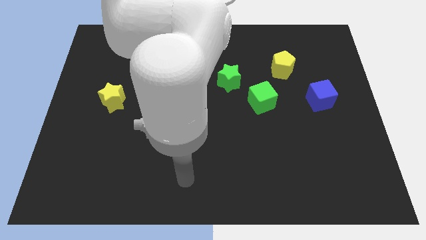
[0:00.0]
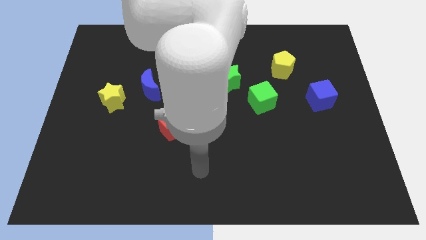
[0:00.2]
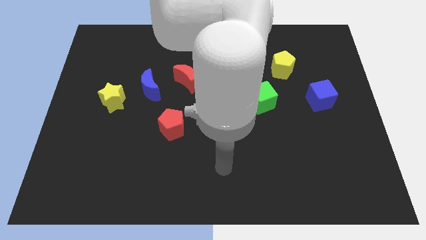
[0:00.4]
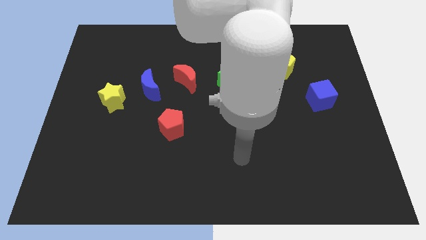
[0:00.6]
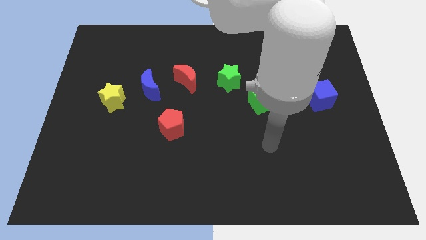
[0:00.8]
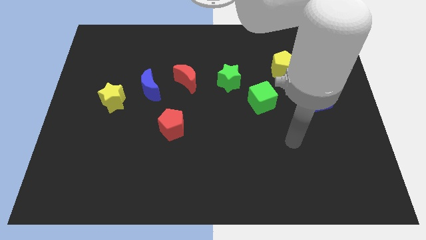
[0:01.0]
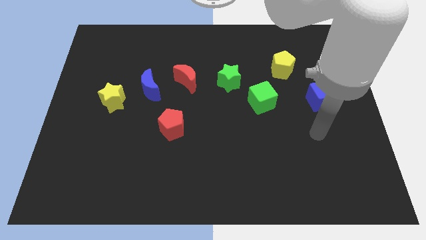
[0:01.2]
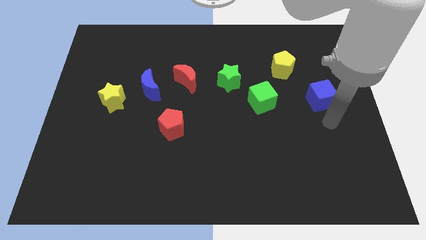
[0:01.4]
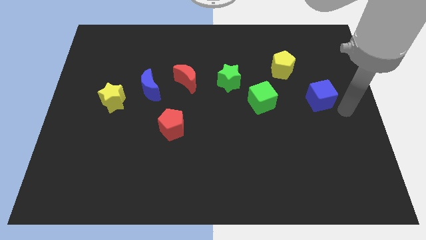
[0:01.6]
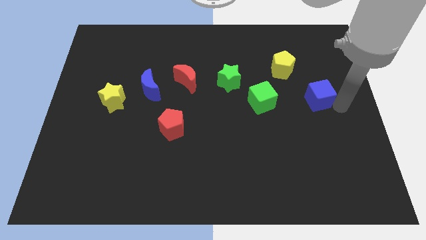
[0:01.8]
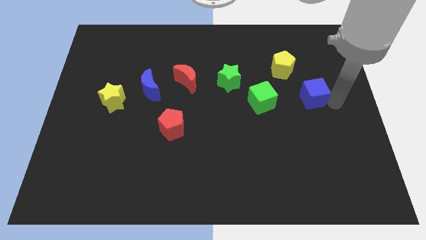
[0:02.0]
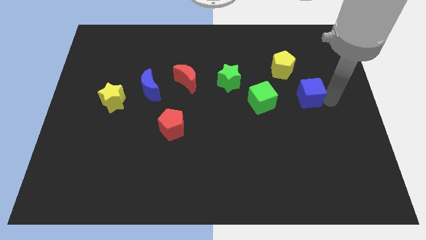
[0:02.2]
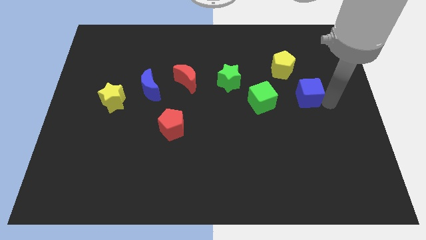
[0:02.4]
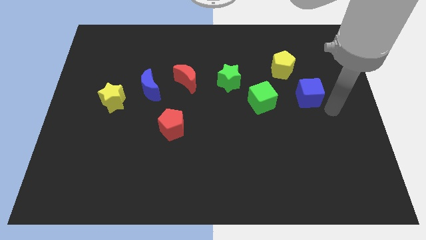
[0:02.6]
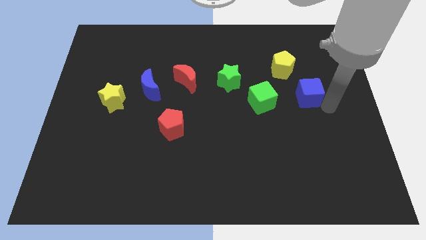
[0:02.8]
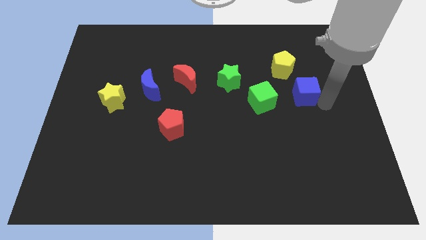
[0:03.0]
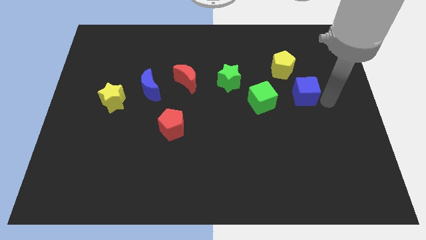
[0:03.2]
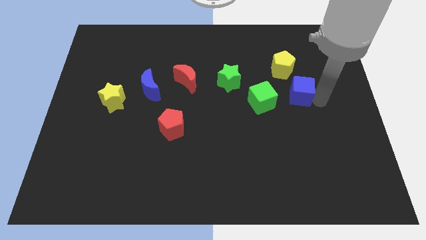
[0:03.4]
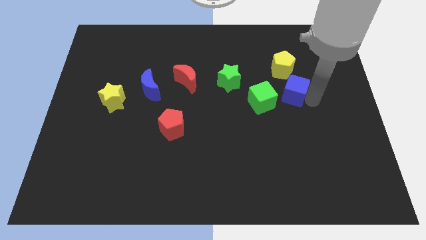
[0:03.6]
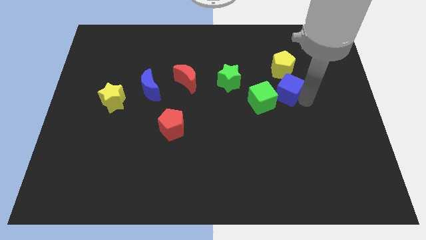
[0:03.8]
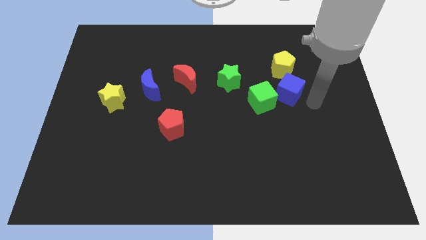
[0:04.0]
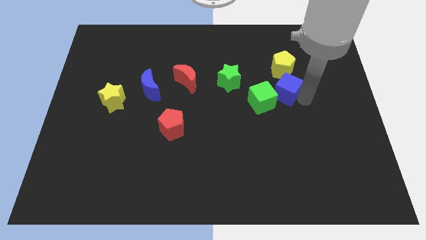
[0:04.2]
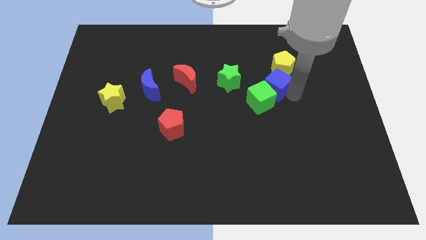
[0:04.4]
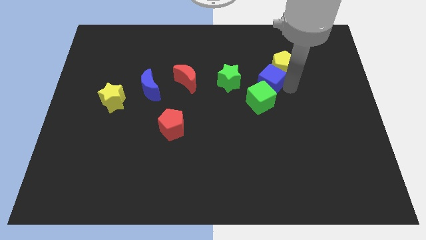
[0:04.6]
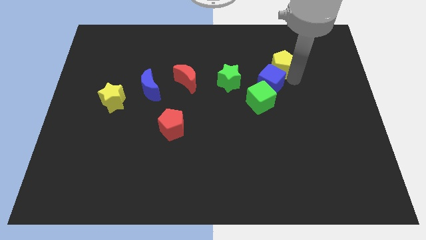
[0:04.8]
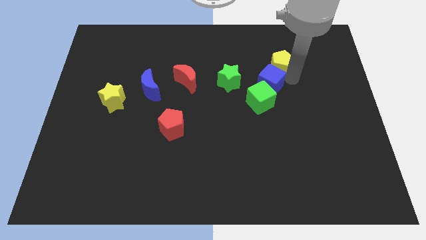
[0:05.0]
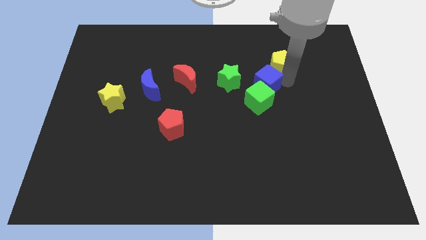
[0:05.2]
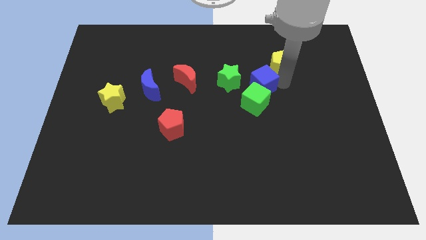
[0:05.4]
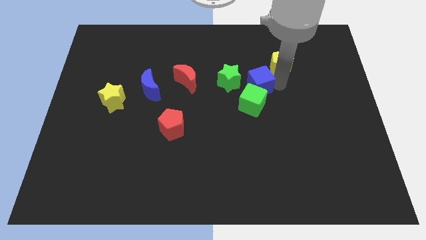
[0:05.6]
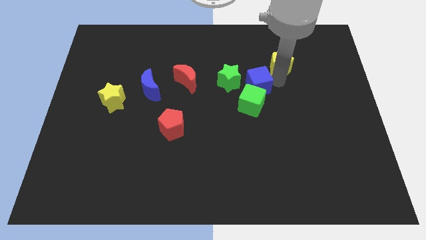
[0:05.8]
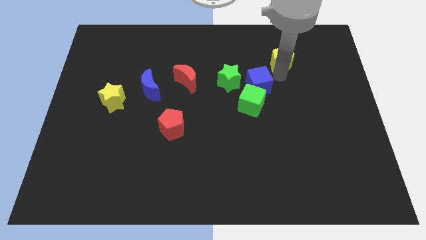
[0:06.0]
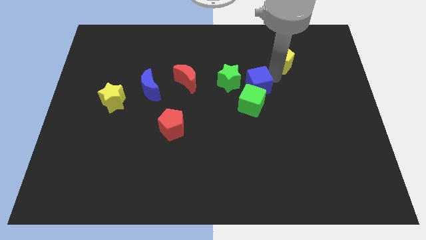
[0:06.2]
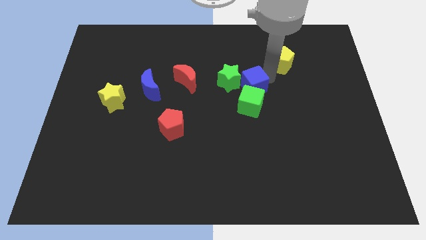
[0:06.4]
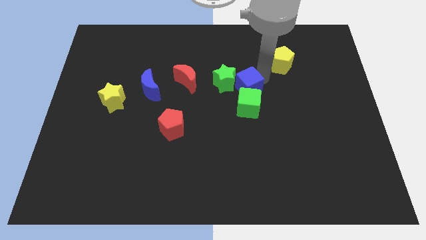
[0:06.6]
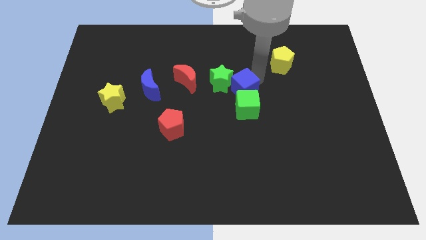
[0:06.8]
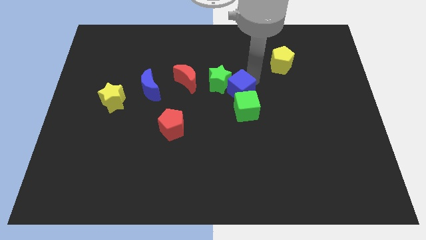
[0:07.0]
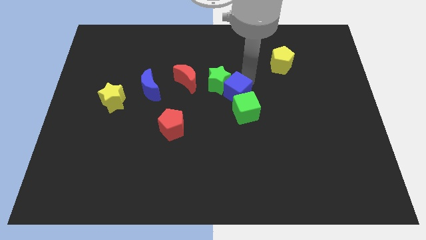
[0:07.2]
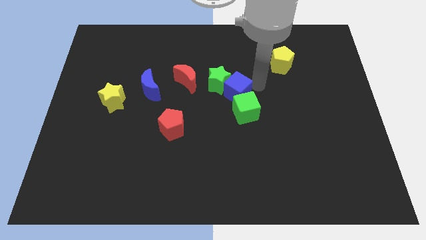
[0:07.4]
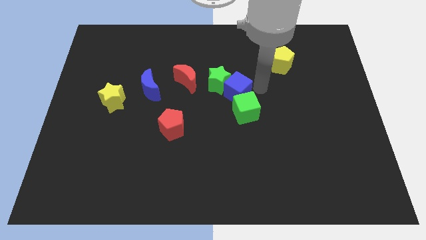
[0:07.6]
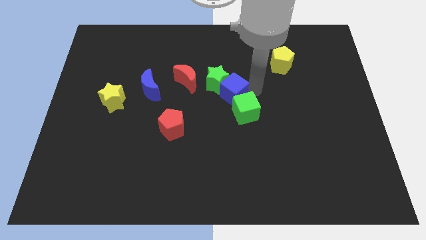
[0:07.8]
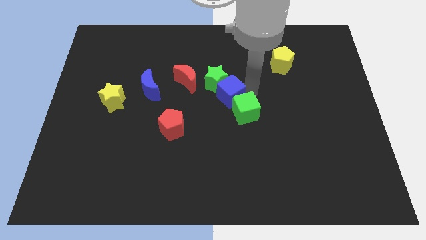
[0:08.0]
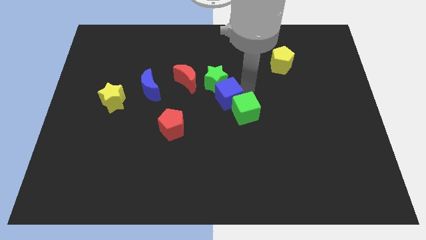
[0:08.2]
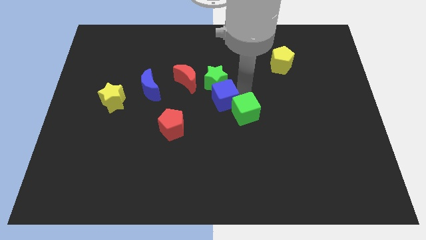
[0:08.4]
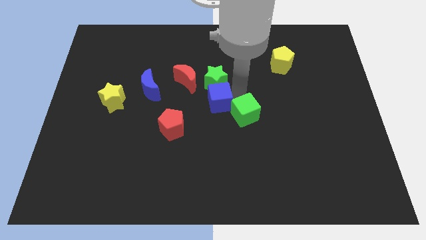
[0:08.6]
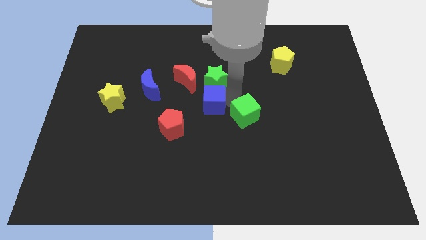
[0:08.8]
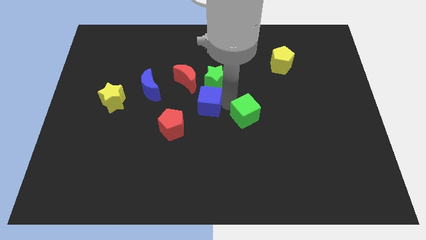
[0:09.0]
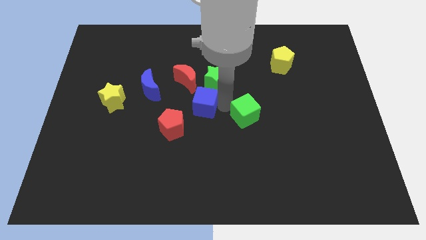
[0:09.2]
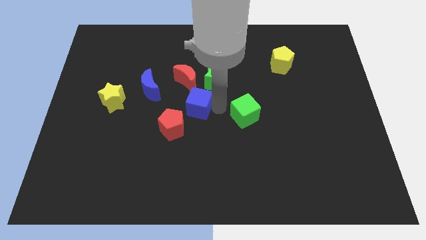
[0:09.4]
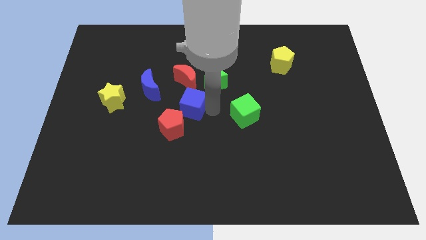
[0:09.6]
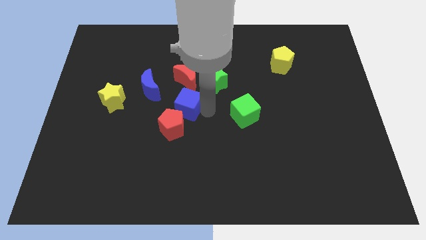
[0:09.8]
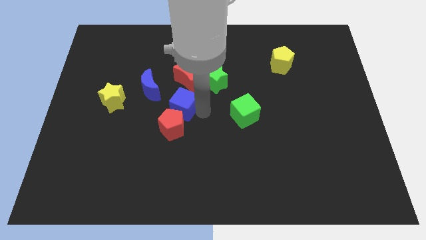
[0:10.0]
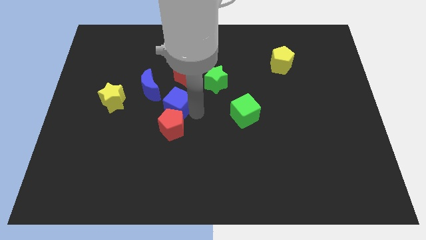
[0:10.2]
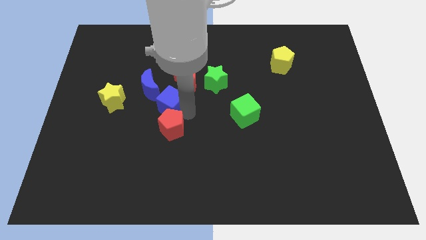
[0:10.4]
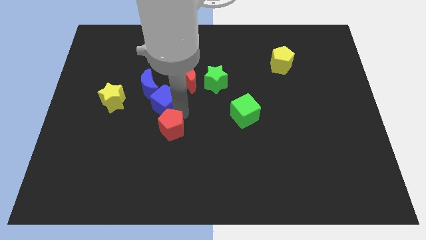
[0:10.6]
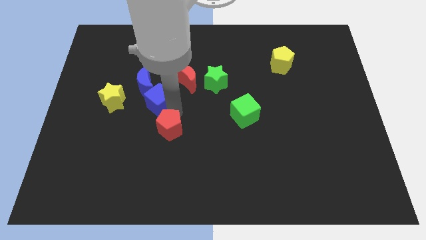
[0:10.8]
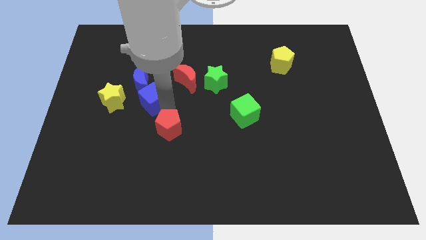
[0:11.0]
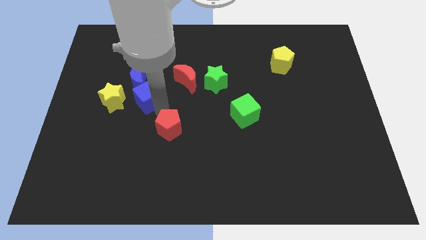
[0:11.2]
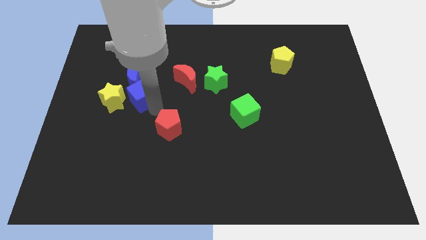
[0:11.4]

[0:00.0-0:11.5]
push the blue cube close to the blue moon
